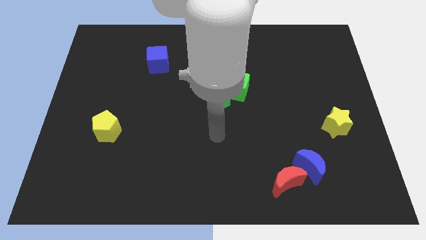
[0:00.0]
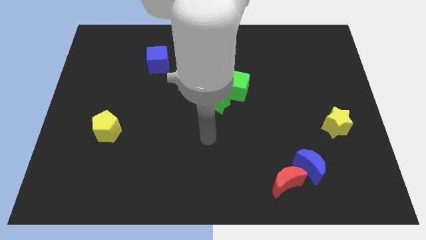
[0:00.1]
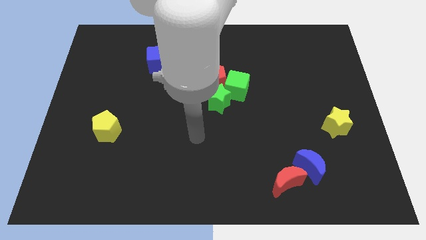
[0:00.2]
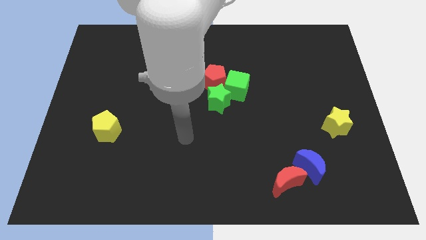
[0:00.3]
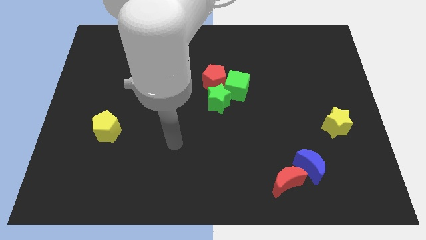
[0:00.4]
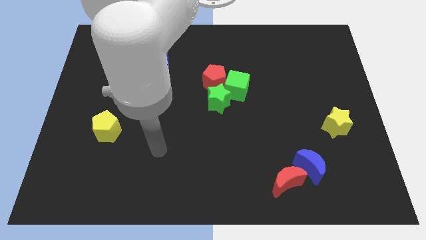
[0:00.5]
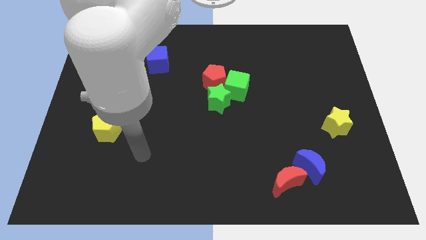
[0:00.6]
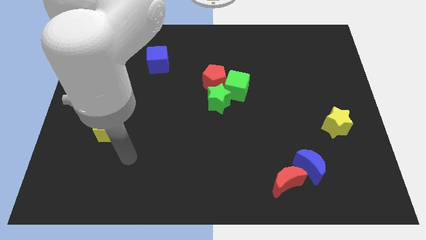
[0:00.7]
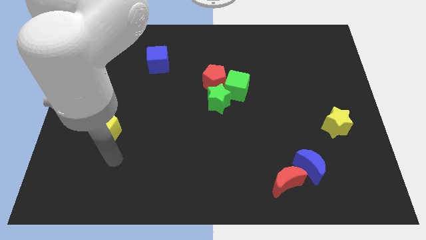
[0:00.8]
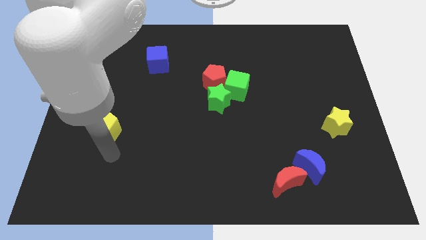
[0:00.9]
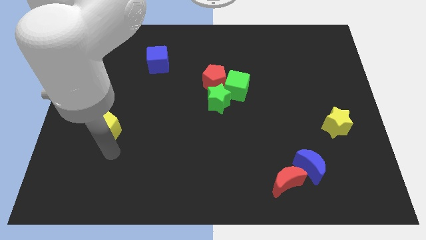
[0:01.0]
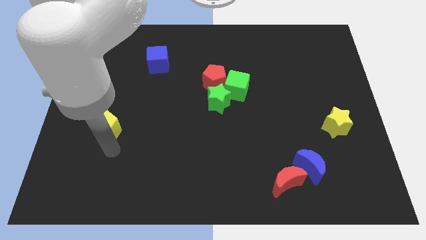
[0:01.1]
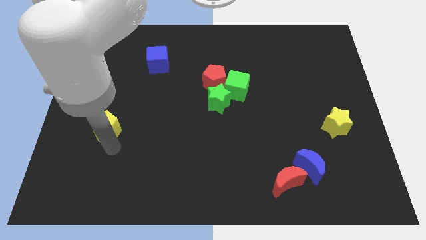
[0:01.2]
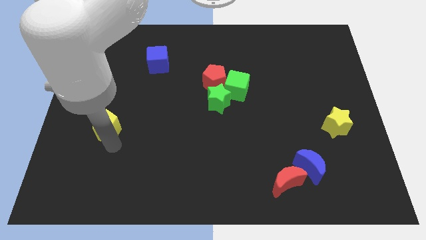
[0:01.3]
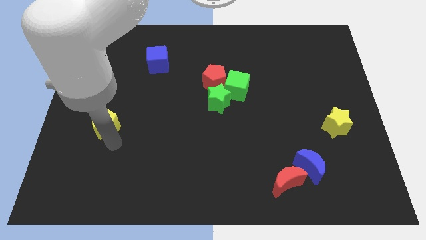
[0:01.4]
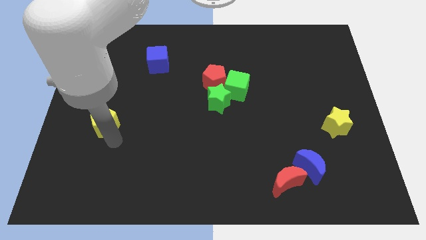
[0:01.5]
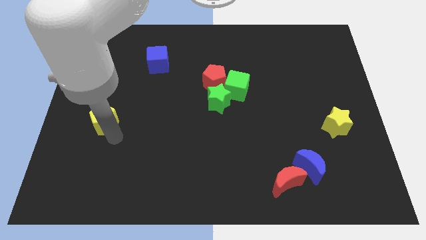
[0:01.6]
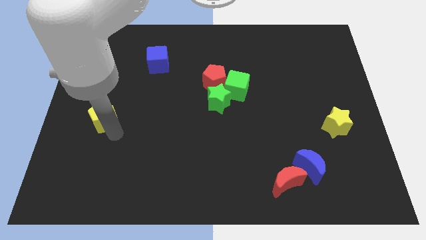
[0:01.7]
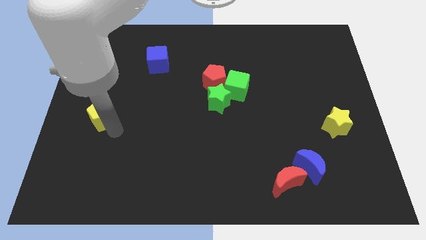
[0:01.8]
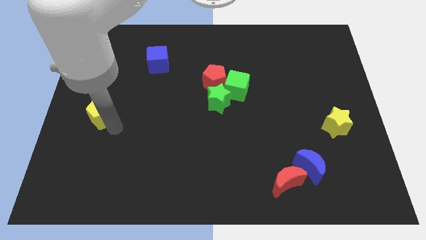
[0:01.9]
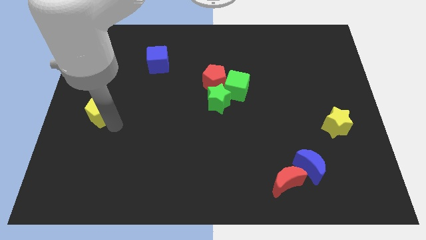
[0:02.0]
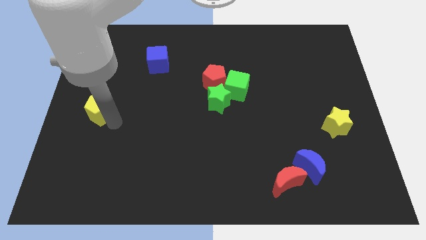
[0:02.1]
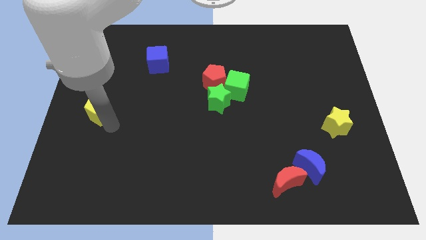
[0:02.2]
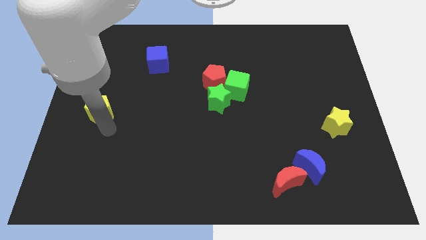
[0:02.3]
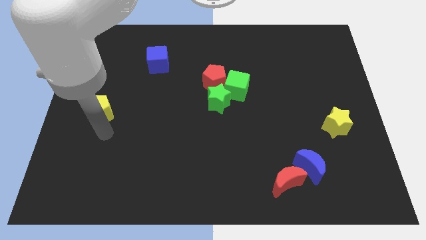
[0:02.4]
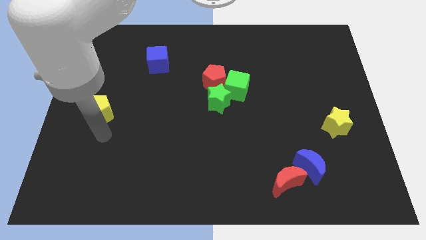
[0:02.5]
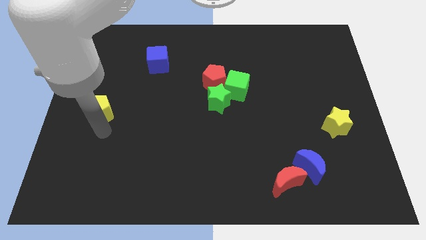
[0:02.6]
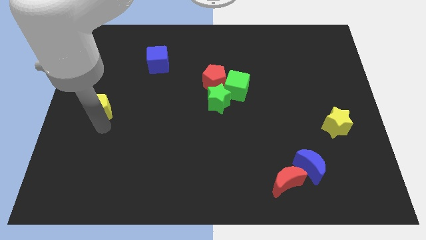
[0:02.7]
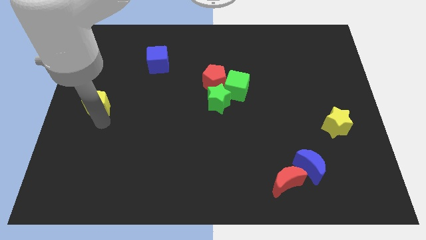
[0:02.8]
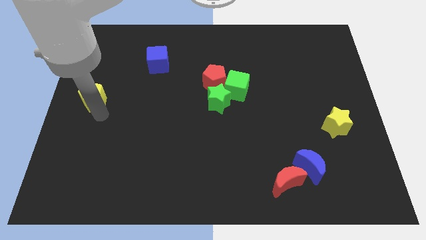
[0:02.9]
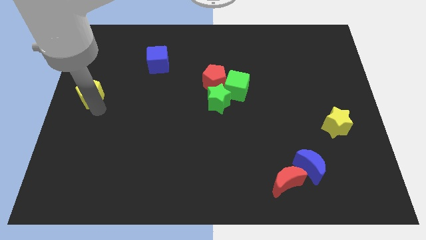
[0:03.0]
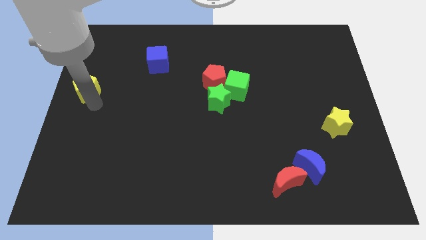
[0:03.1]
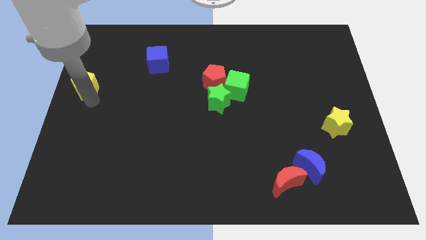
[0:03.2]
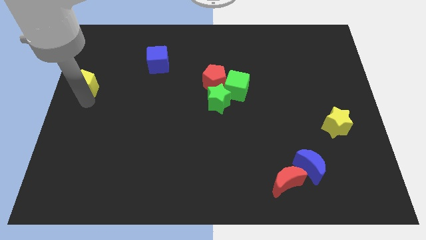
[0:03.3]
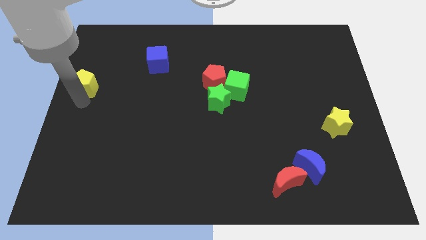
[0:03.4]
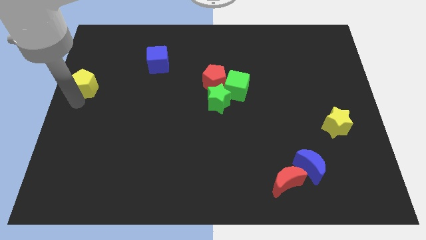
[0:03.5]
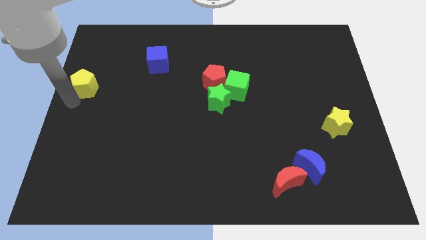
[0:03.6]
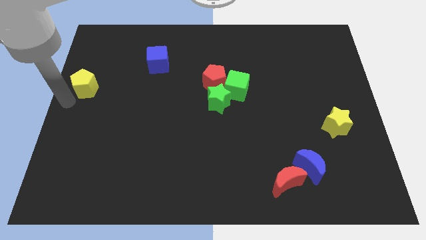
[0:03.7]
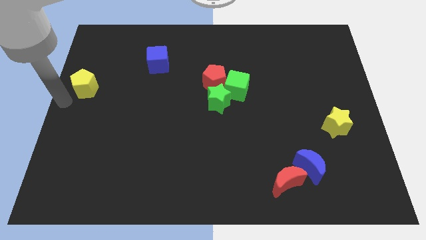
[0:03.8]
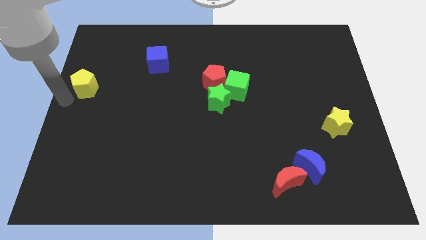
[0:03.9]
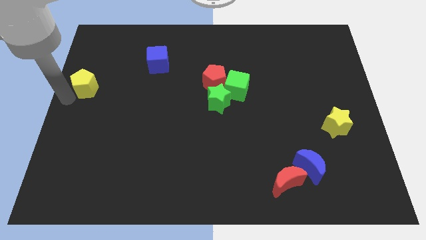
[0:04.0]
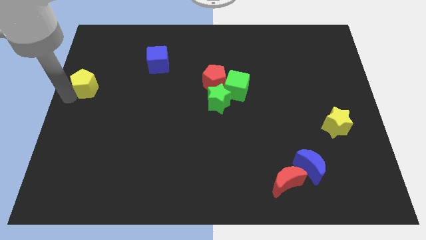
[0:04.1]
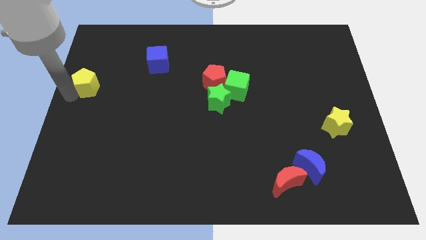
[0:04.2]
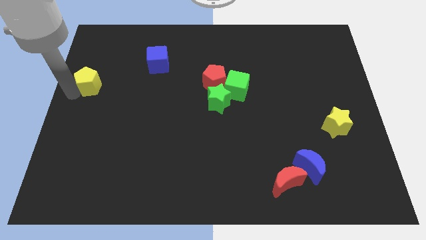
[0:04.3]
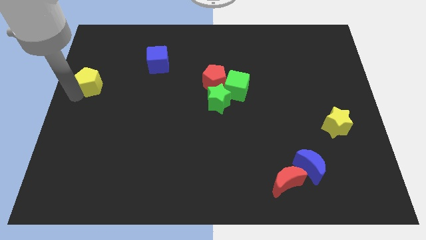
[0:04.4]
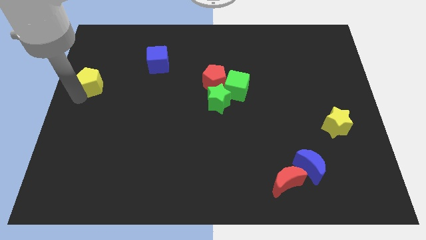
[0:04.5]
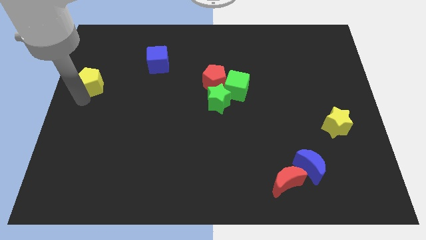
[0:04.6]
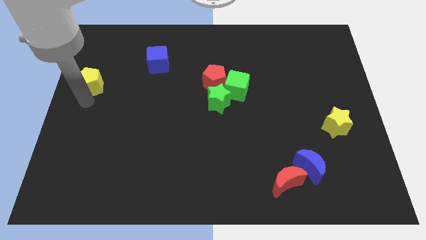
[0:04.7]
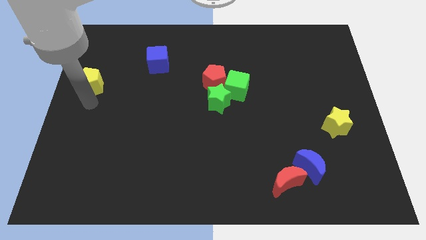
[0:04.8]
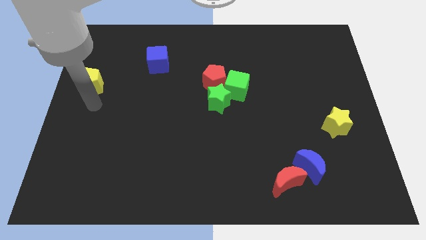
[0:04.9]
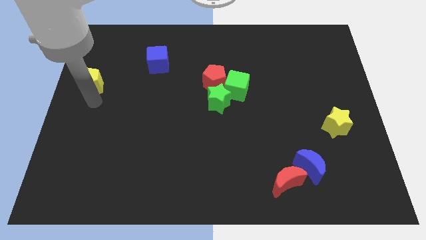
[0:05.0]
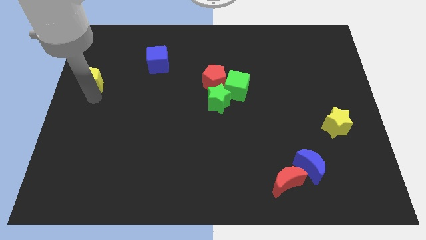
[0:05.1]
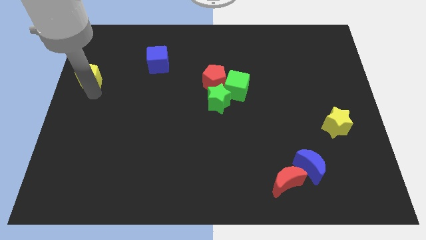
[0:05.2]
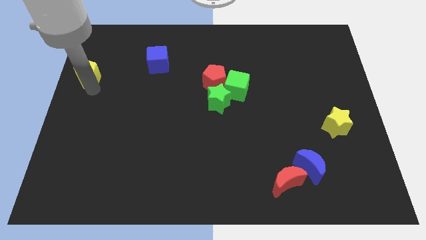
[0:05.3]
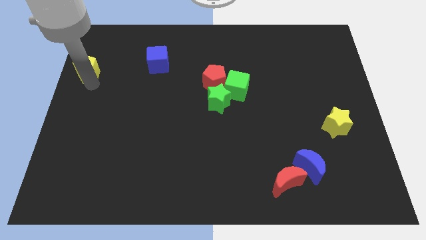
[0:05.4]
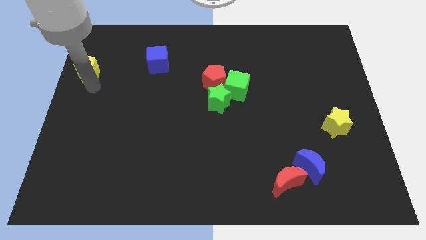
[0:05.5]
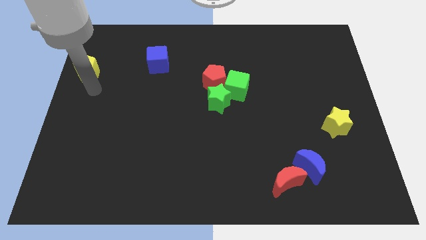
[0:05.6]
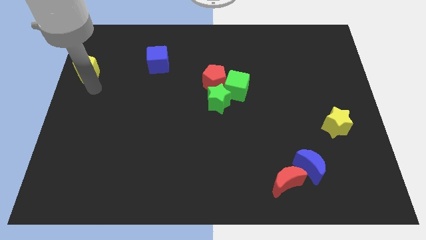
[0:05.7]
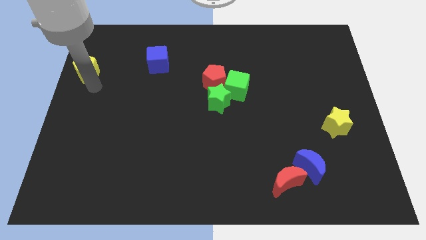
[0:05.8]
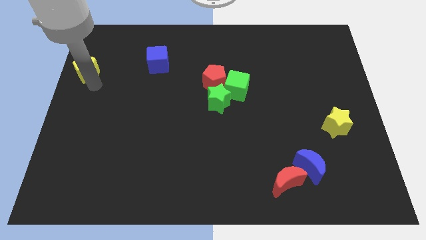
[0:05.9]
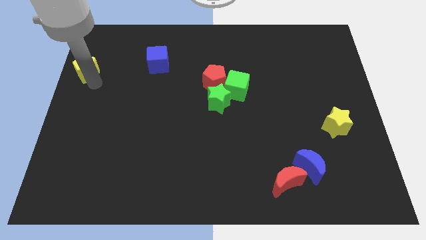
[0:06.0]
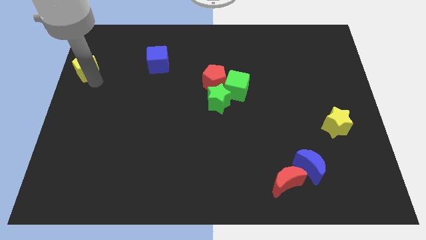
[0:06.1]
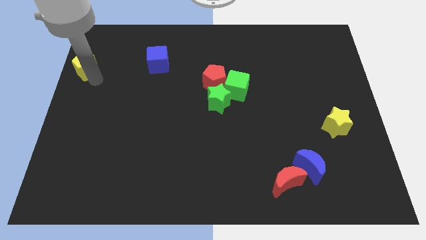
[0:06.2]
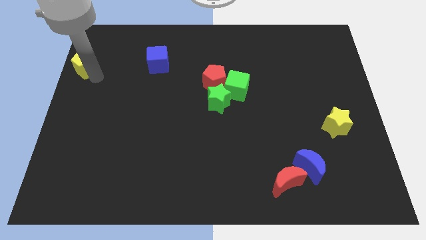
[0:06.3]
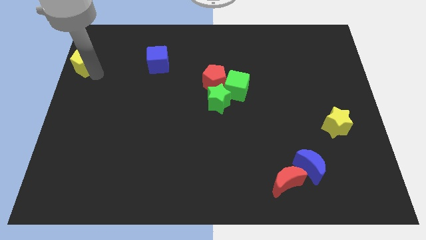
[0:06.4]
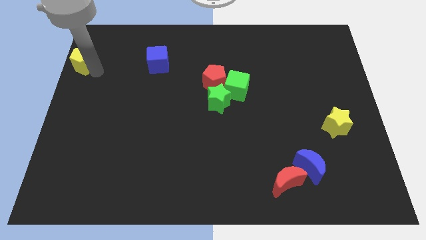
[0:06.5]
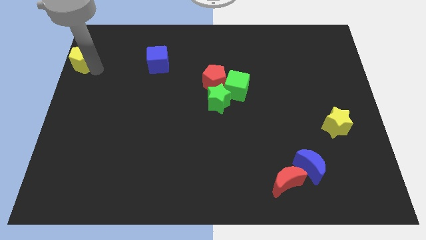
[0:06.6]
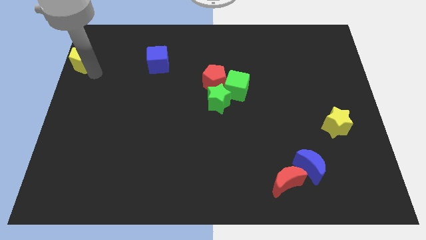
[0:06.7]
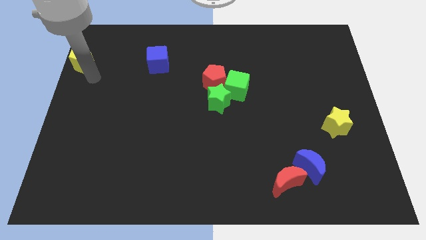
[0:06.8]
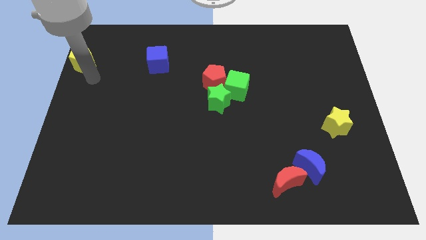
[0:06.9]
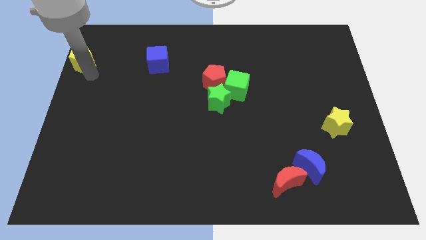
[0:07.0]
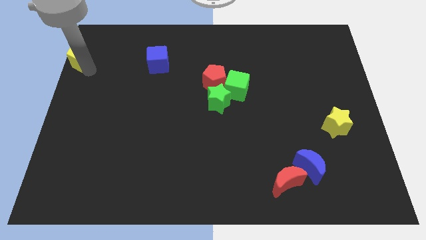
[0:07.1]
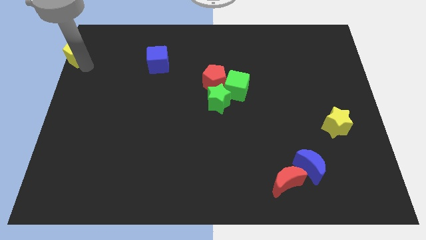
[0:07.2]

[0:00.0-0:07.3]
slide the yellow pentagon to the top left

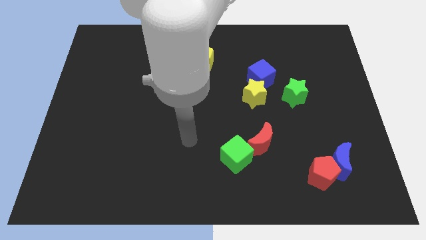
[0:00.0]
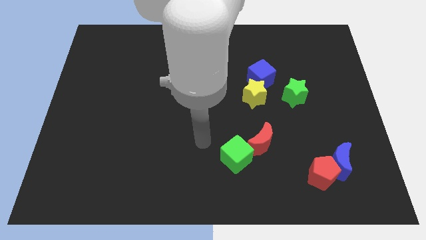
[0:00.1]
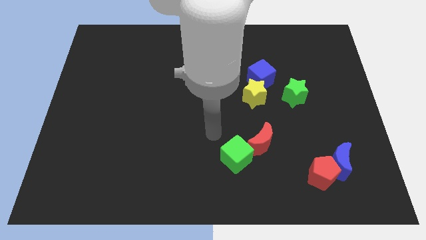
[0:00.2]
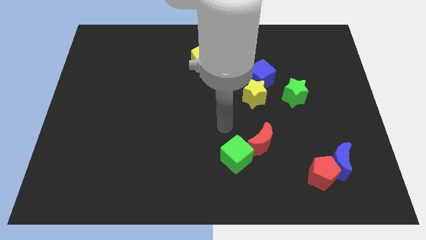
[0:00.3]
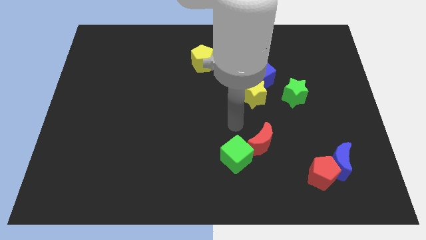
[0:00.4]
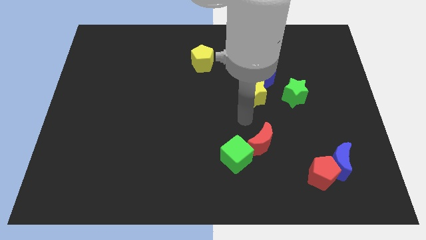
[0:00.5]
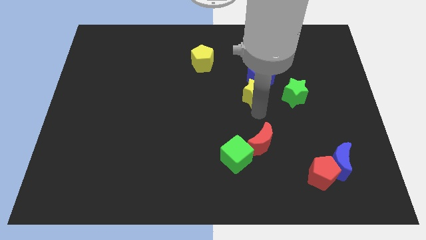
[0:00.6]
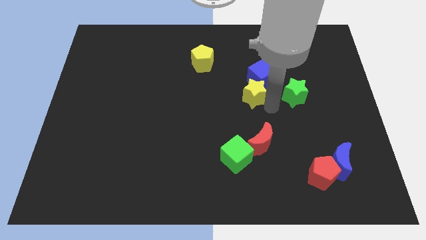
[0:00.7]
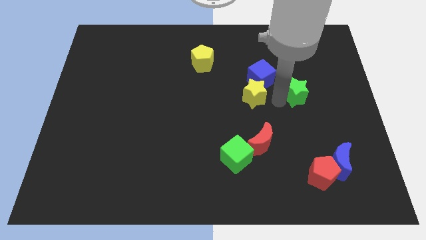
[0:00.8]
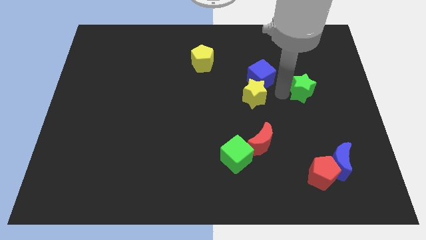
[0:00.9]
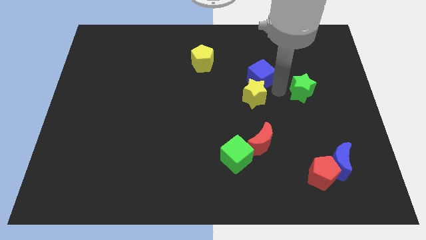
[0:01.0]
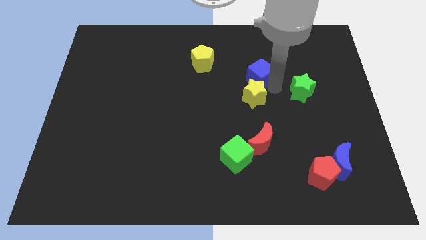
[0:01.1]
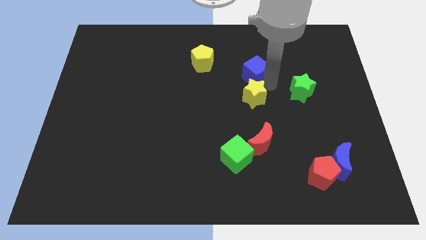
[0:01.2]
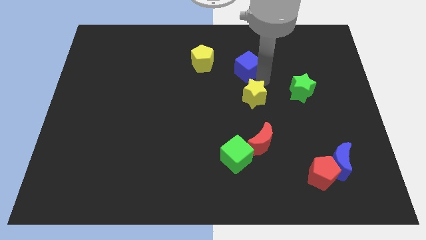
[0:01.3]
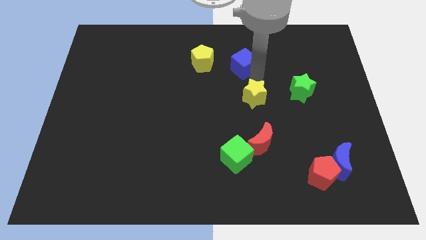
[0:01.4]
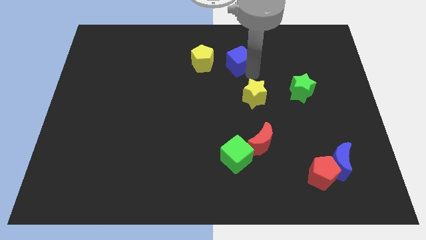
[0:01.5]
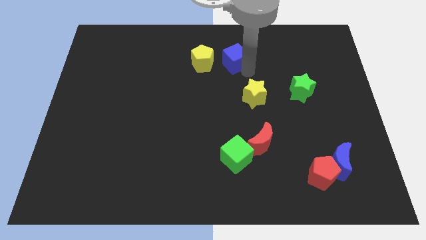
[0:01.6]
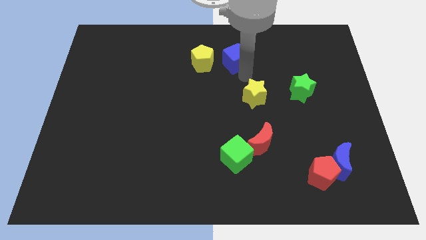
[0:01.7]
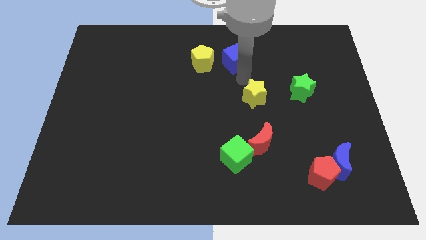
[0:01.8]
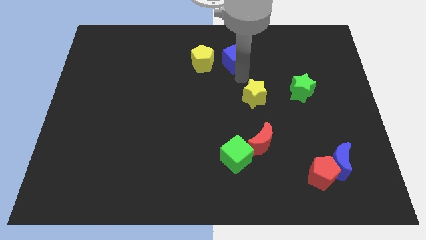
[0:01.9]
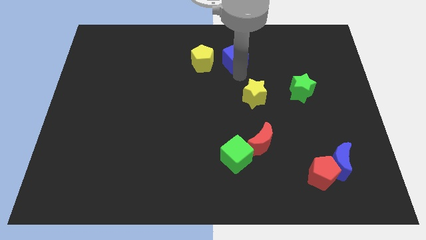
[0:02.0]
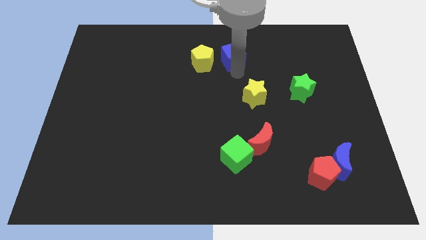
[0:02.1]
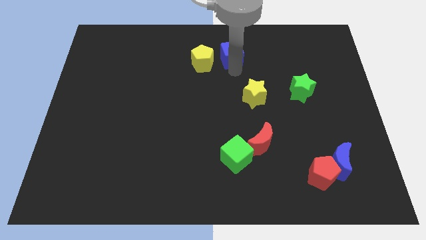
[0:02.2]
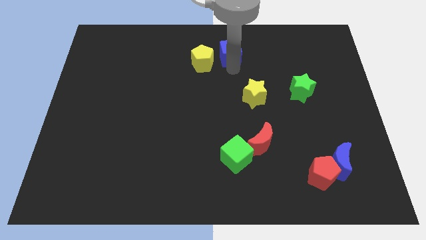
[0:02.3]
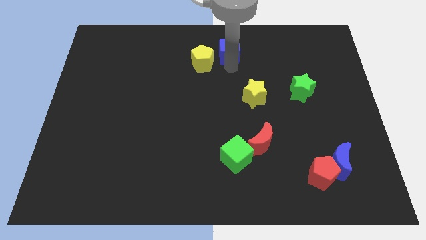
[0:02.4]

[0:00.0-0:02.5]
put the blue cube to the towards your base
